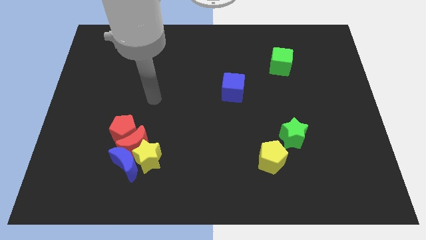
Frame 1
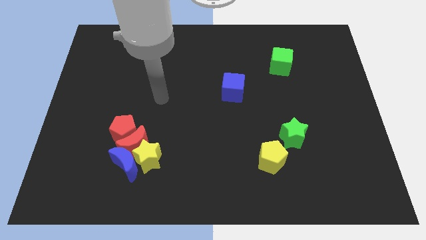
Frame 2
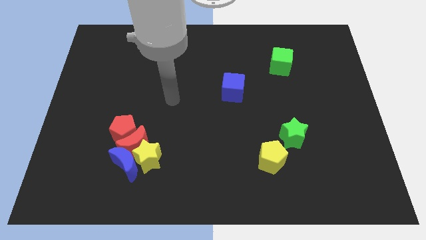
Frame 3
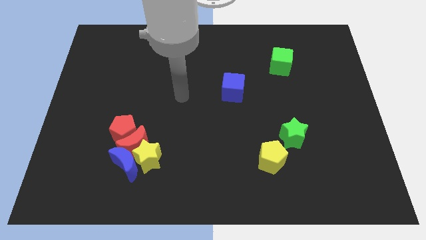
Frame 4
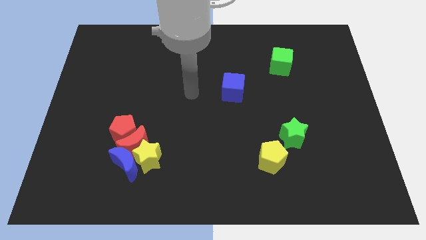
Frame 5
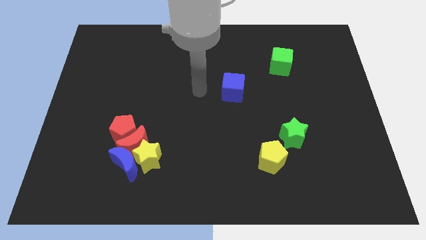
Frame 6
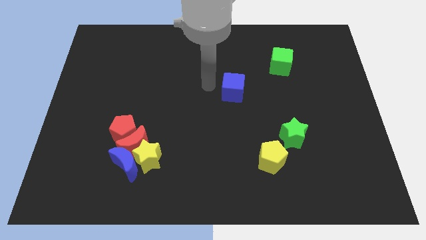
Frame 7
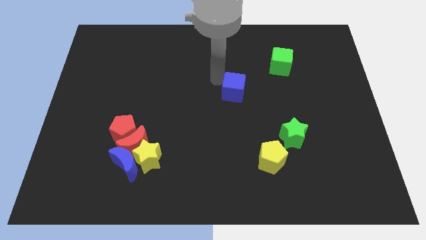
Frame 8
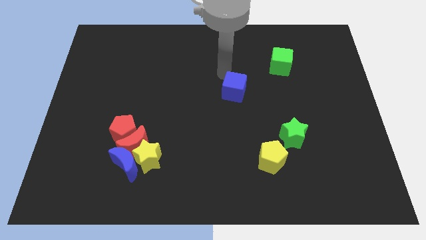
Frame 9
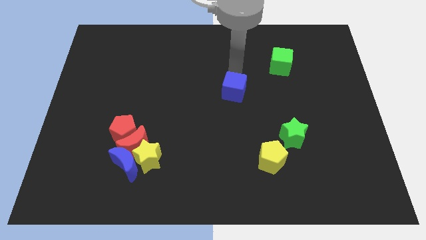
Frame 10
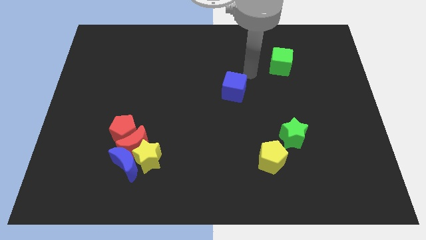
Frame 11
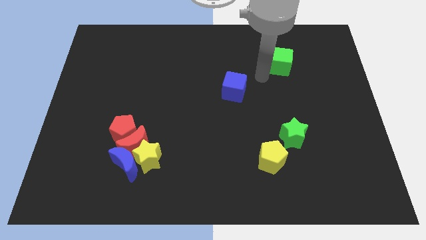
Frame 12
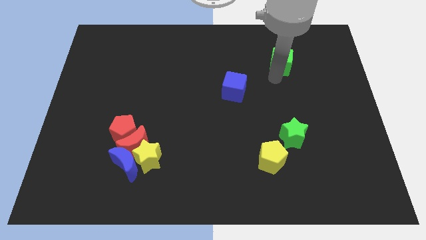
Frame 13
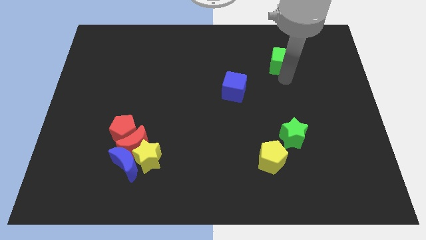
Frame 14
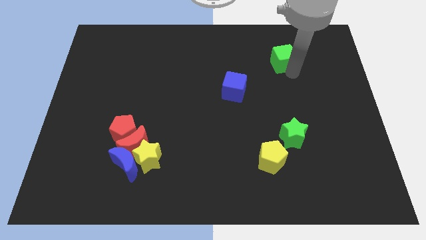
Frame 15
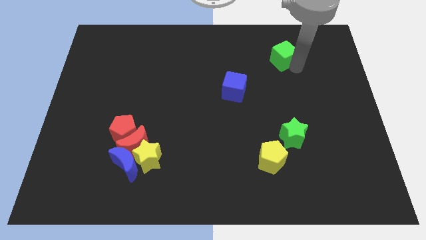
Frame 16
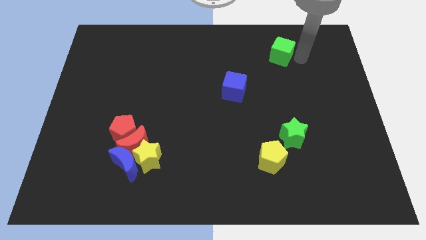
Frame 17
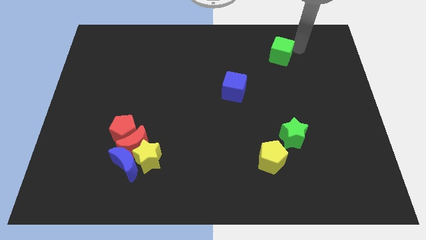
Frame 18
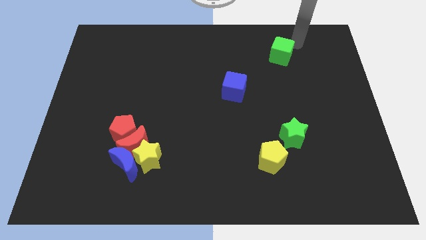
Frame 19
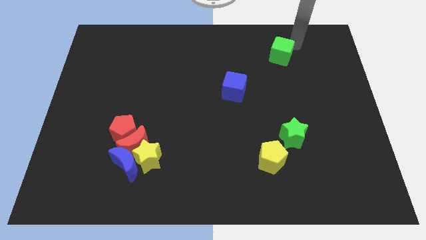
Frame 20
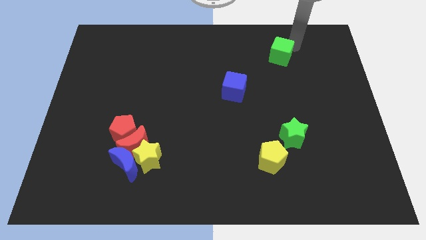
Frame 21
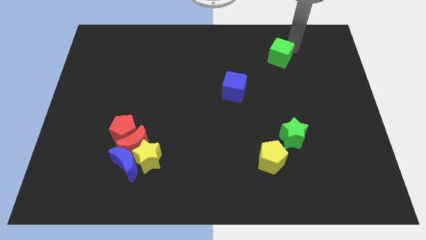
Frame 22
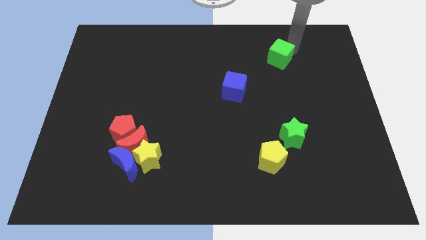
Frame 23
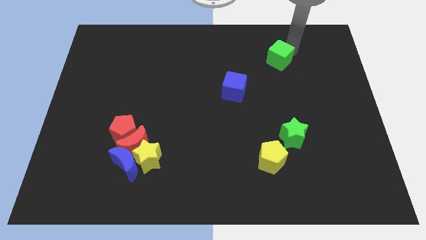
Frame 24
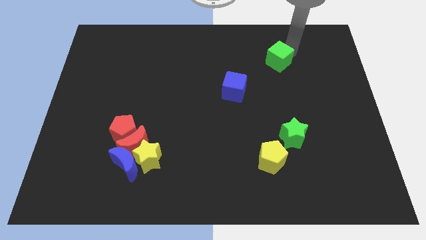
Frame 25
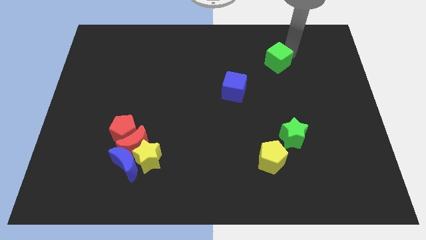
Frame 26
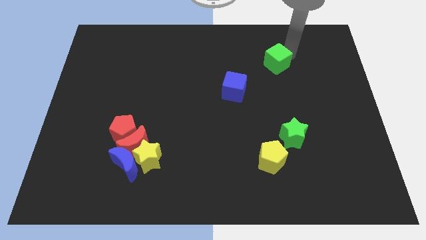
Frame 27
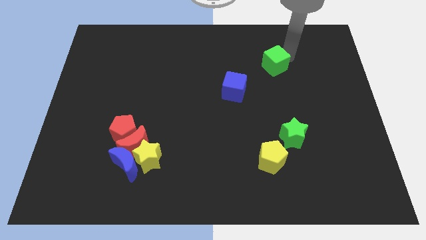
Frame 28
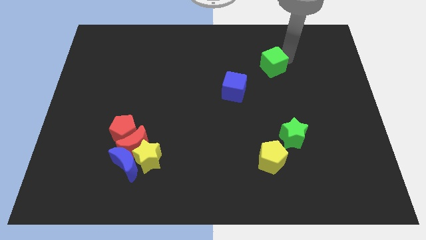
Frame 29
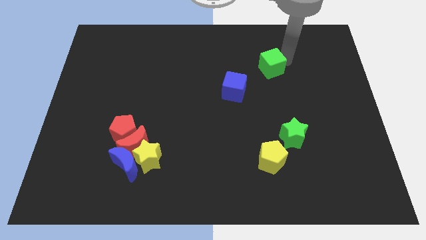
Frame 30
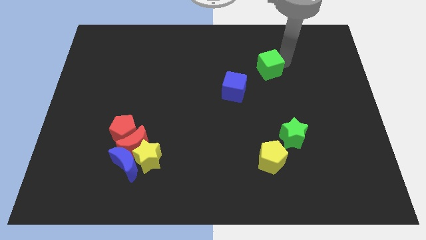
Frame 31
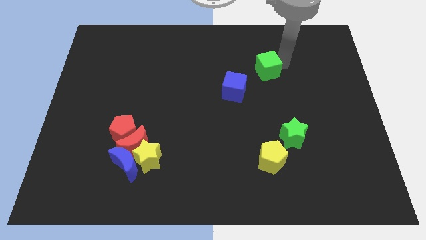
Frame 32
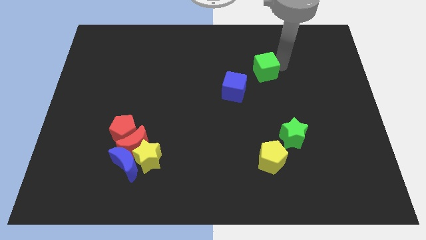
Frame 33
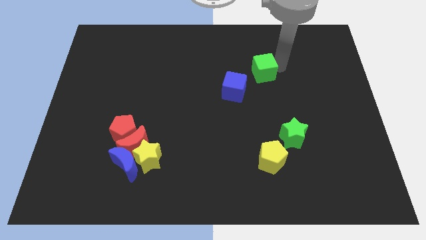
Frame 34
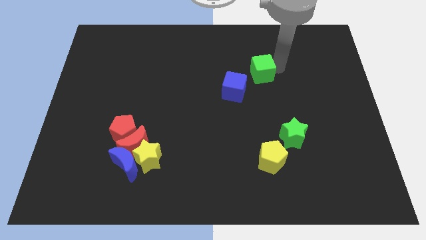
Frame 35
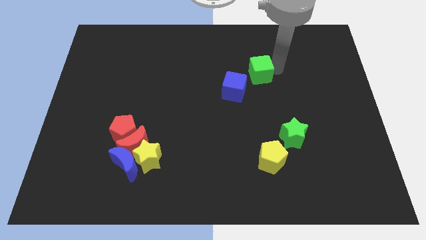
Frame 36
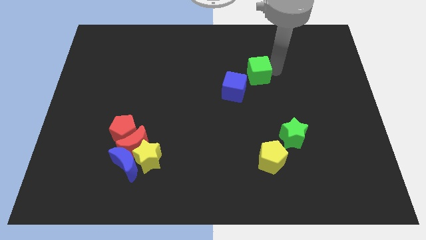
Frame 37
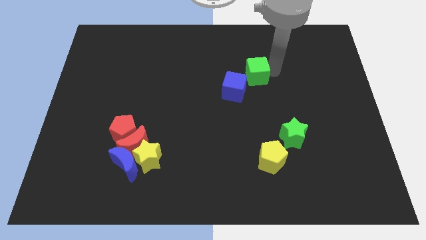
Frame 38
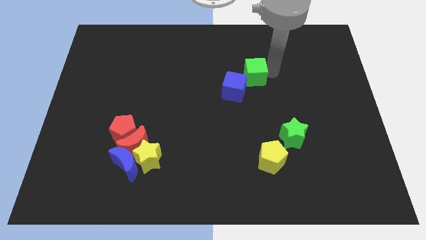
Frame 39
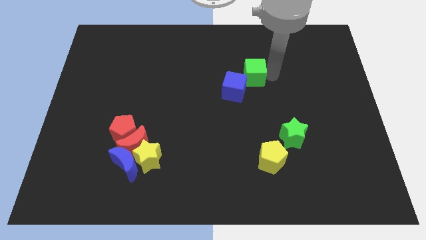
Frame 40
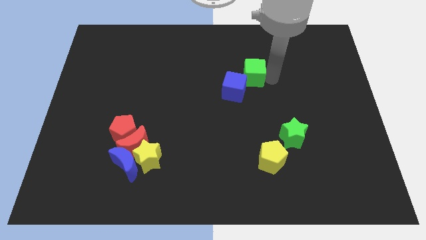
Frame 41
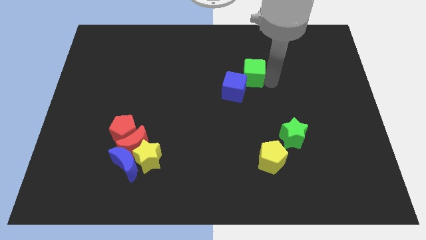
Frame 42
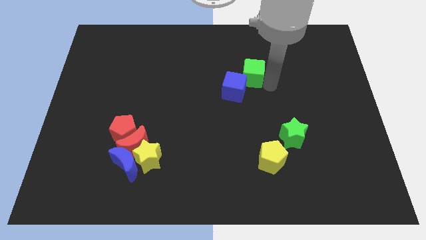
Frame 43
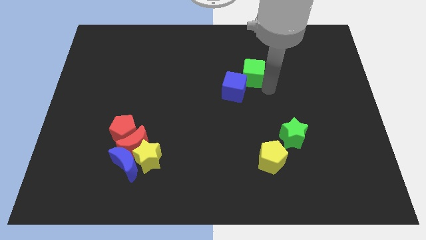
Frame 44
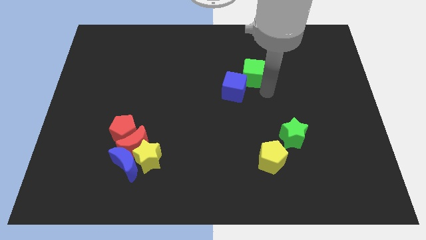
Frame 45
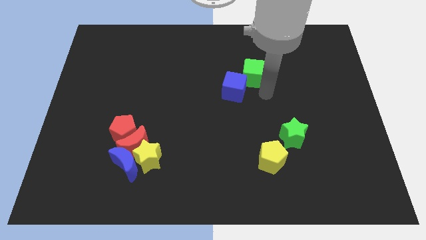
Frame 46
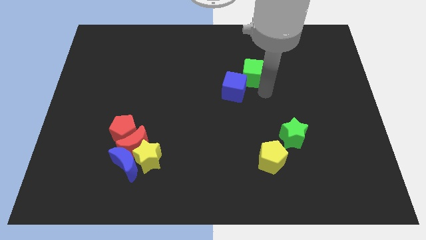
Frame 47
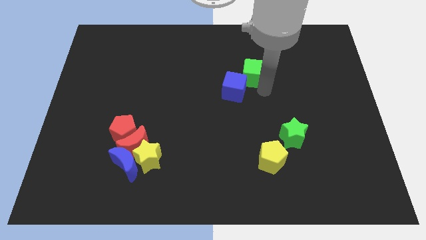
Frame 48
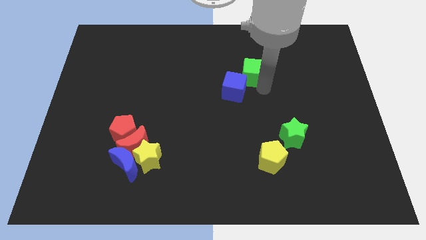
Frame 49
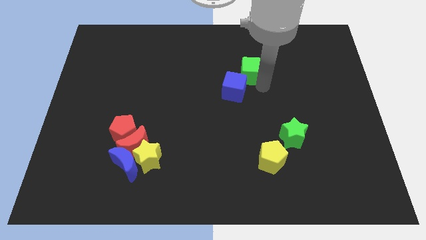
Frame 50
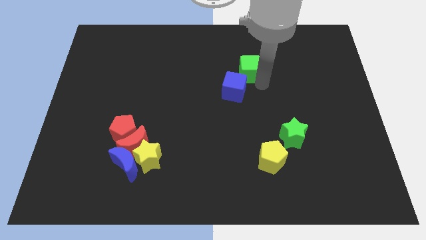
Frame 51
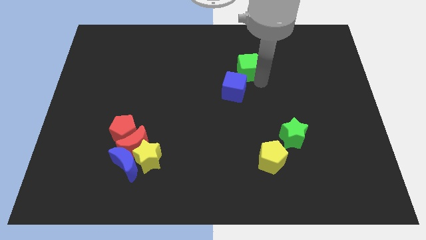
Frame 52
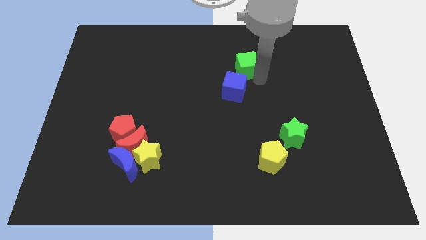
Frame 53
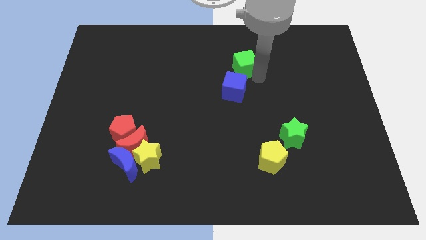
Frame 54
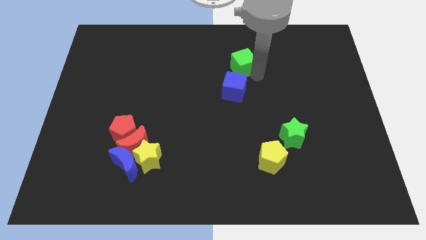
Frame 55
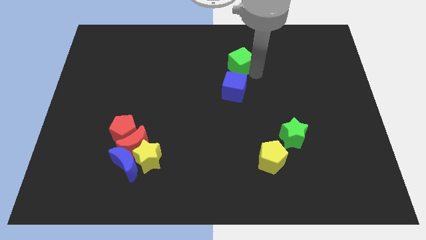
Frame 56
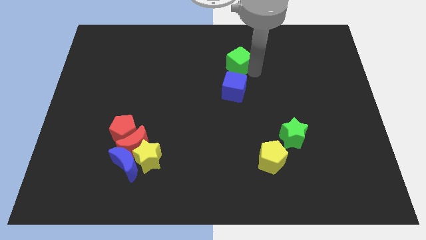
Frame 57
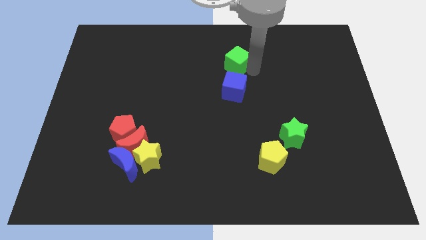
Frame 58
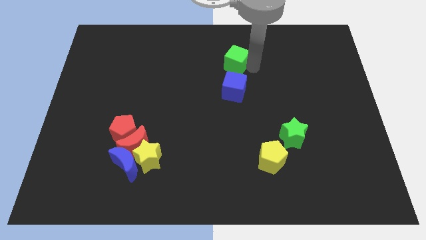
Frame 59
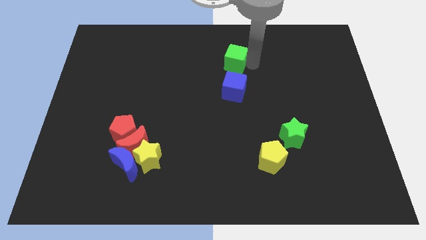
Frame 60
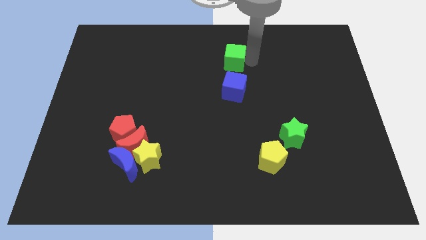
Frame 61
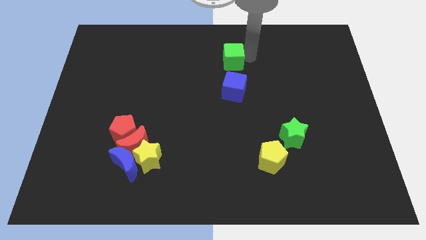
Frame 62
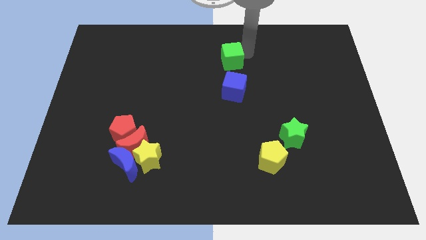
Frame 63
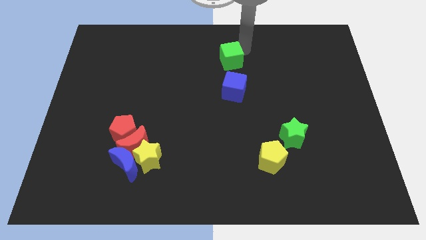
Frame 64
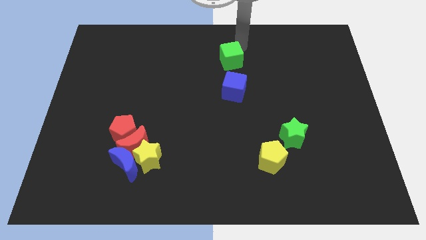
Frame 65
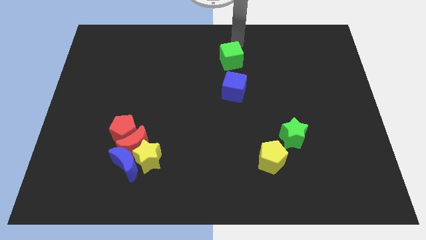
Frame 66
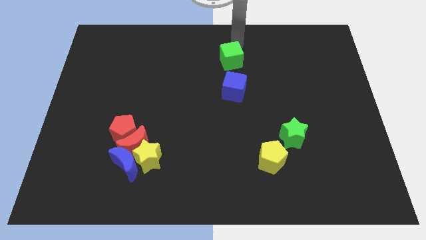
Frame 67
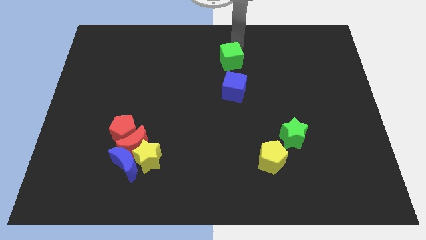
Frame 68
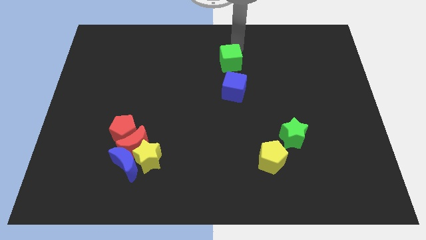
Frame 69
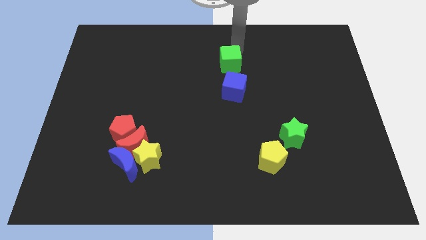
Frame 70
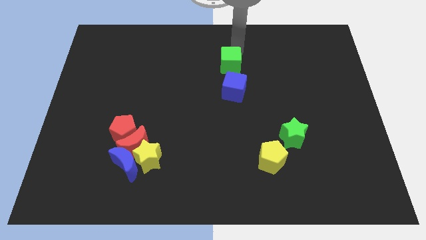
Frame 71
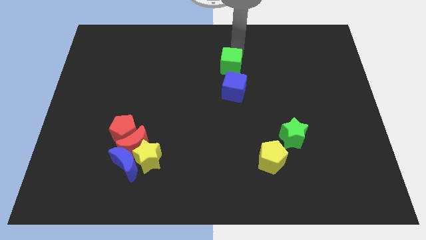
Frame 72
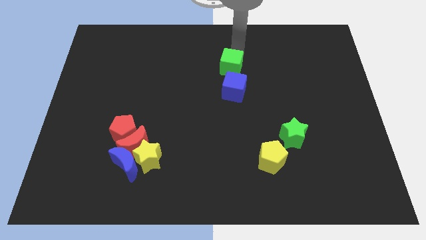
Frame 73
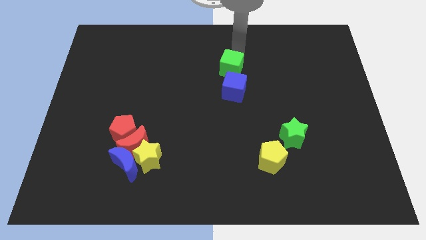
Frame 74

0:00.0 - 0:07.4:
move the green cube to the top left of the blue cube
